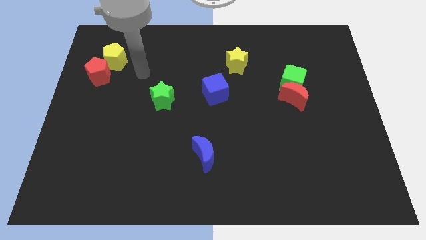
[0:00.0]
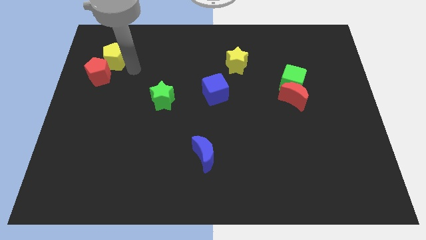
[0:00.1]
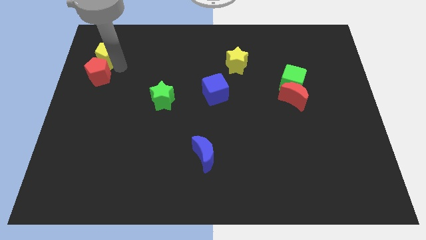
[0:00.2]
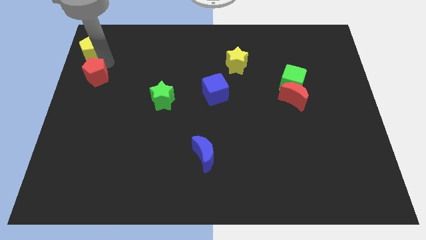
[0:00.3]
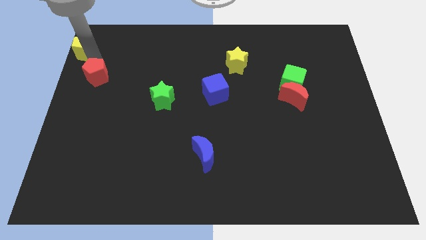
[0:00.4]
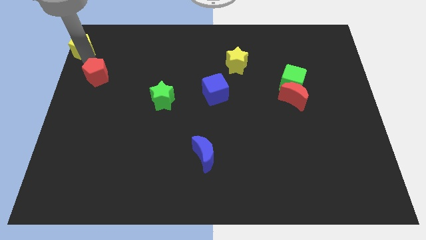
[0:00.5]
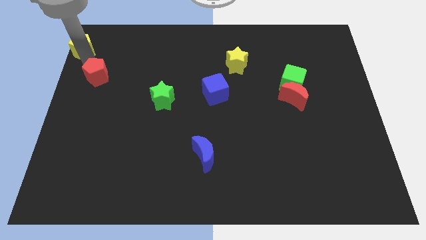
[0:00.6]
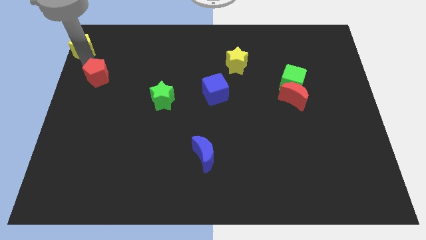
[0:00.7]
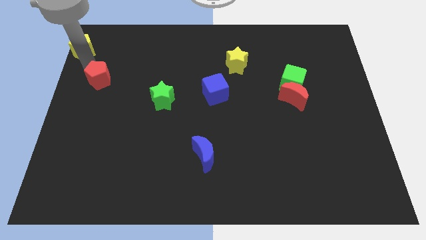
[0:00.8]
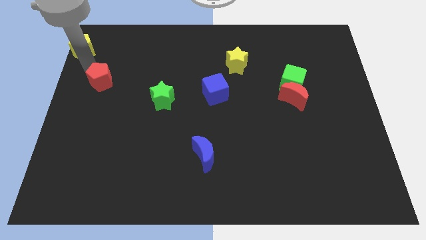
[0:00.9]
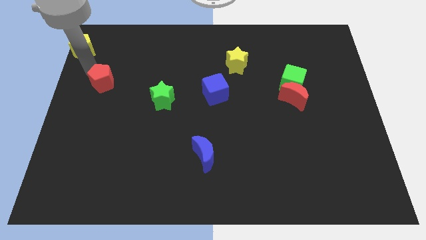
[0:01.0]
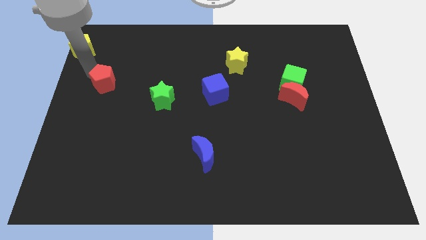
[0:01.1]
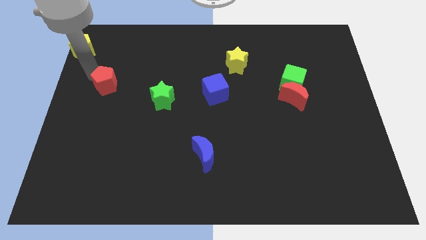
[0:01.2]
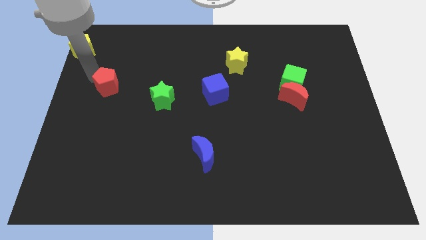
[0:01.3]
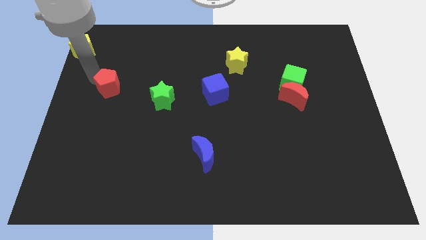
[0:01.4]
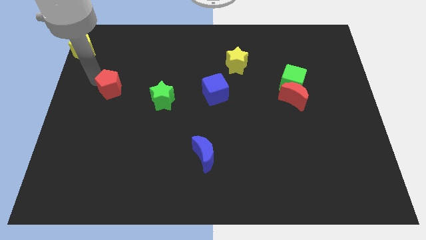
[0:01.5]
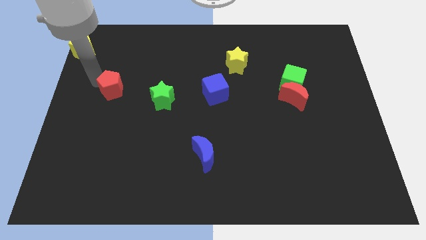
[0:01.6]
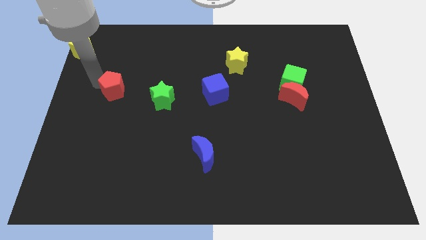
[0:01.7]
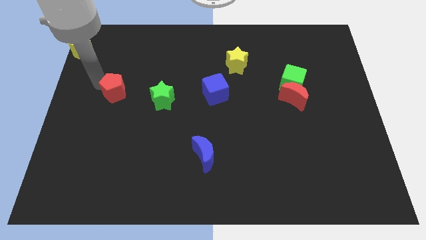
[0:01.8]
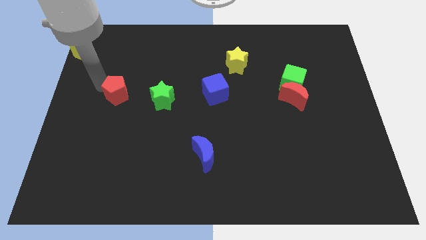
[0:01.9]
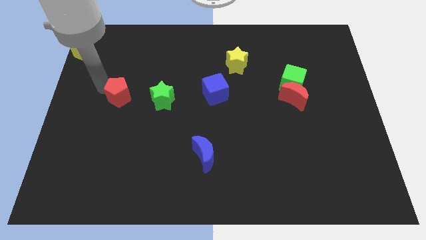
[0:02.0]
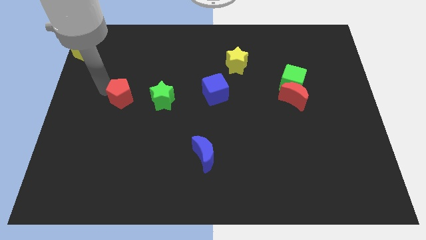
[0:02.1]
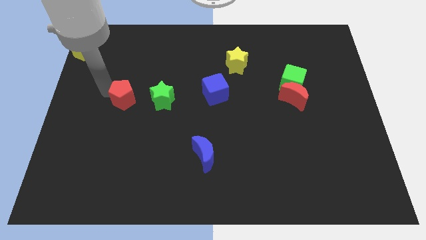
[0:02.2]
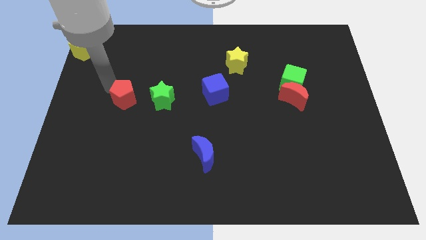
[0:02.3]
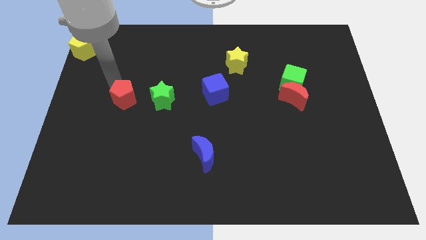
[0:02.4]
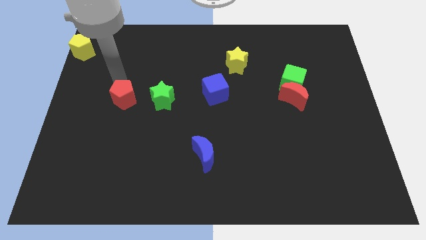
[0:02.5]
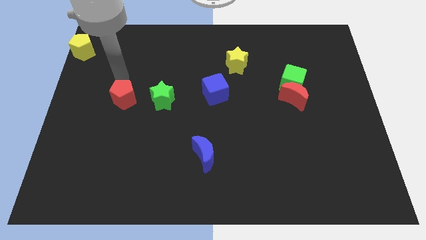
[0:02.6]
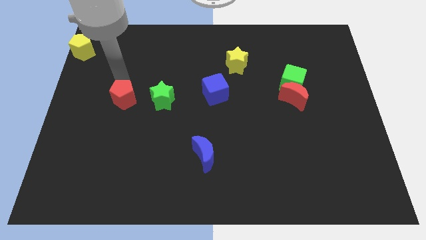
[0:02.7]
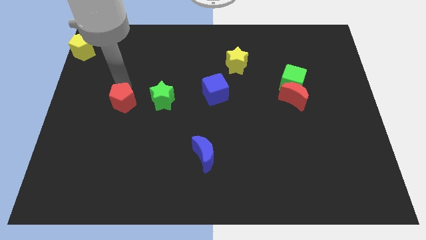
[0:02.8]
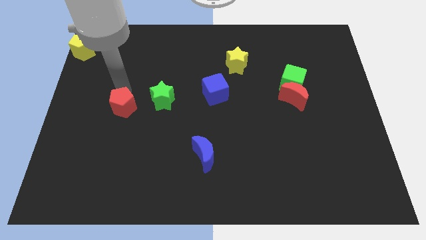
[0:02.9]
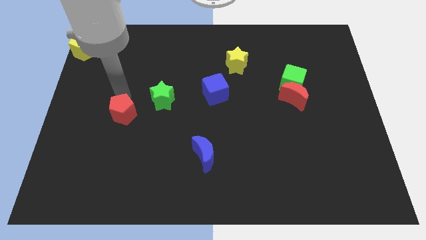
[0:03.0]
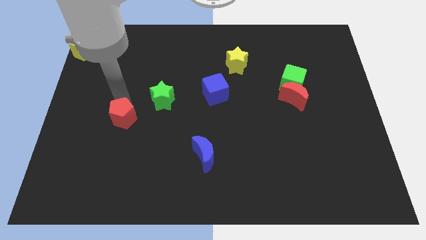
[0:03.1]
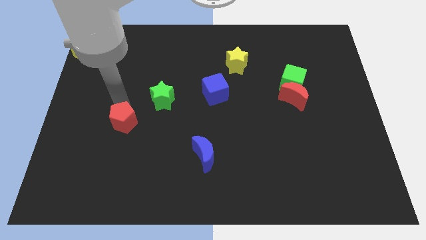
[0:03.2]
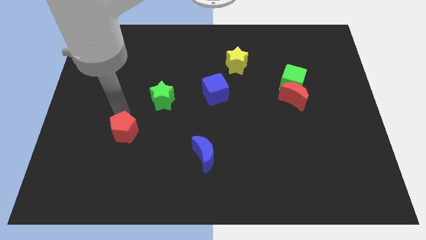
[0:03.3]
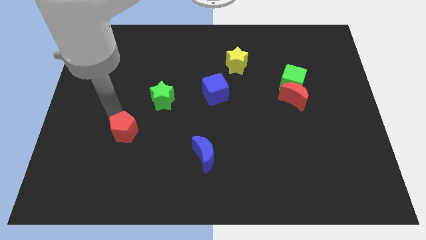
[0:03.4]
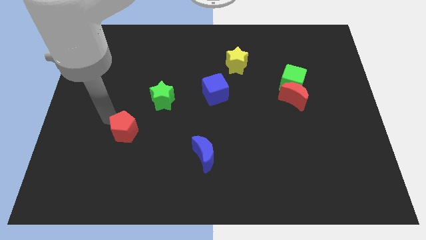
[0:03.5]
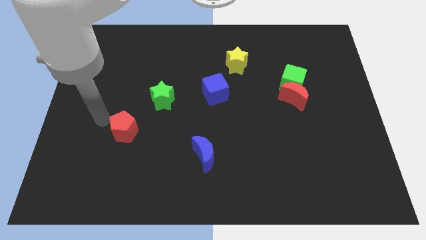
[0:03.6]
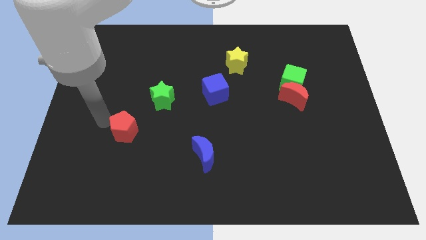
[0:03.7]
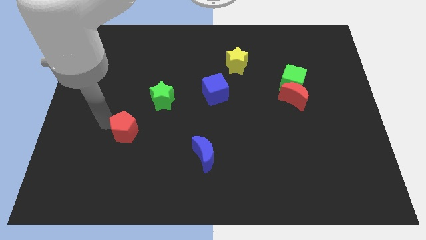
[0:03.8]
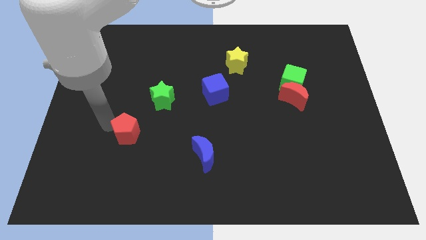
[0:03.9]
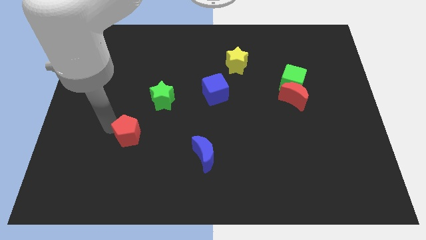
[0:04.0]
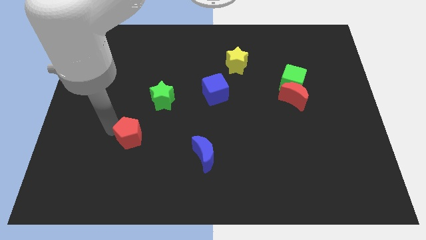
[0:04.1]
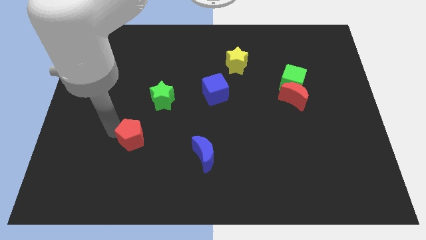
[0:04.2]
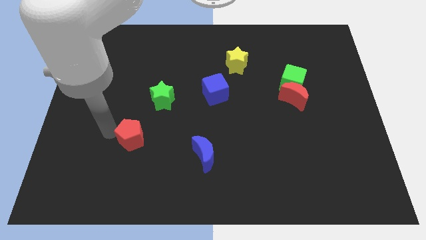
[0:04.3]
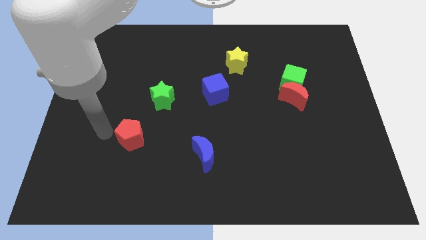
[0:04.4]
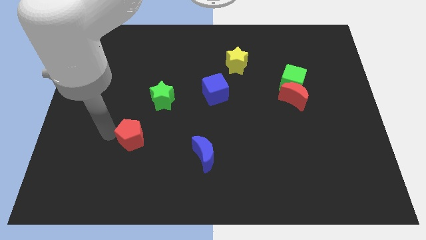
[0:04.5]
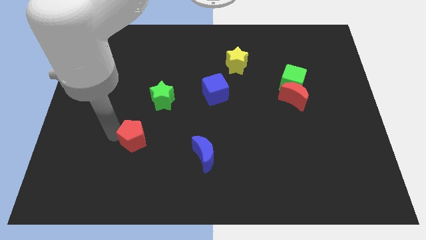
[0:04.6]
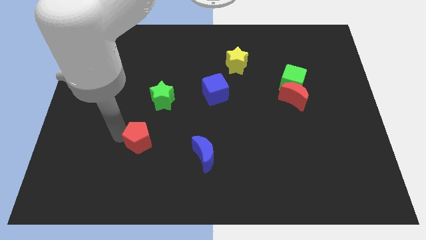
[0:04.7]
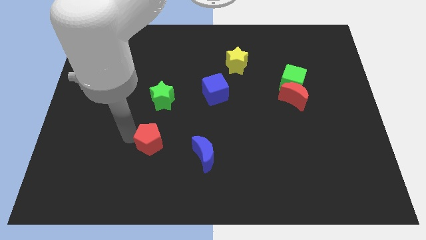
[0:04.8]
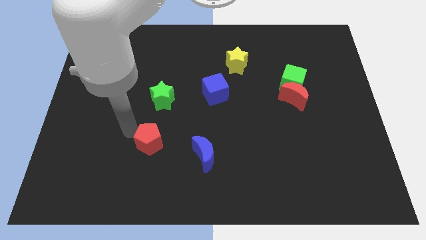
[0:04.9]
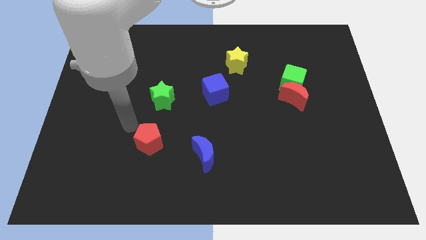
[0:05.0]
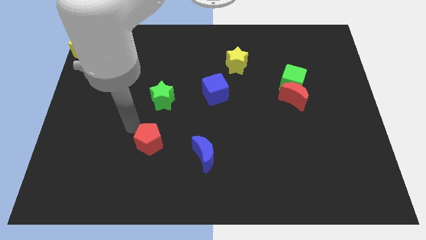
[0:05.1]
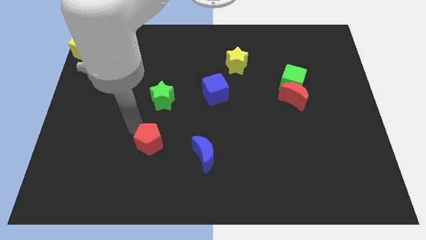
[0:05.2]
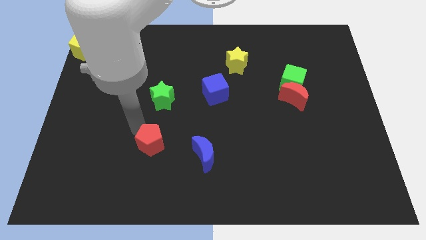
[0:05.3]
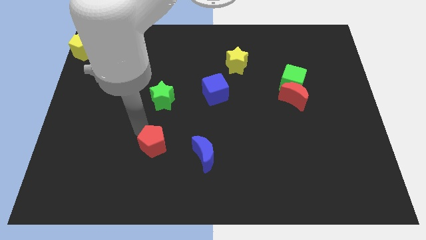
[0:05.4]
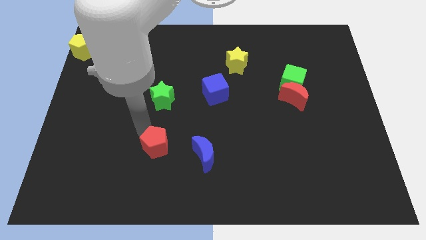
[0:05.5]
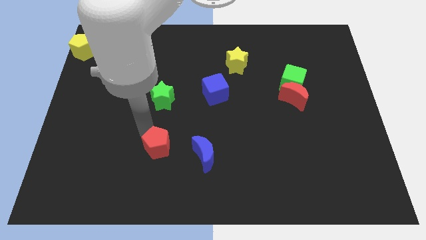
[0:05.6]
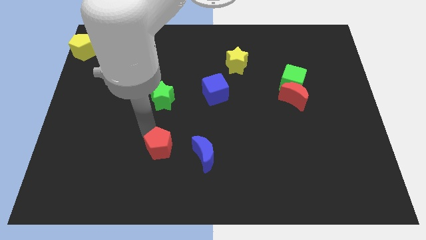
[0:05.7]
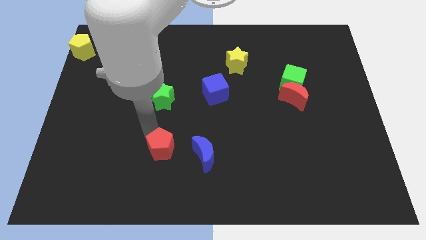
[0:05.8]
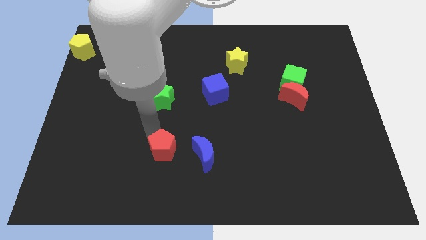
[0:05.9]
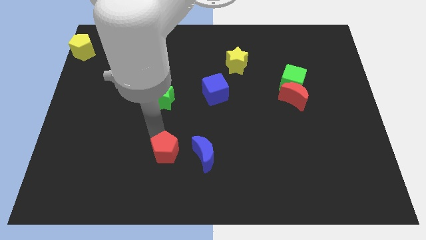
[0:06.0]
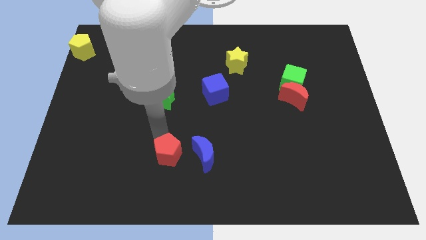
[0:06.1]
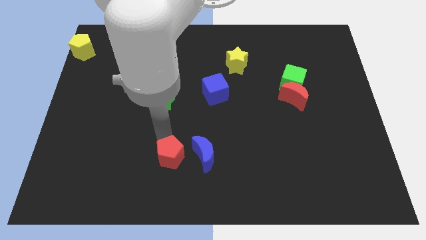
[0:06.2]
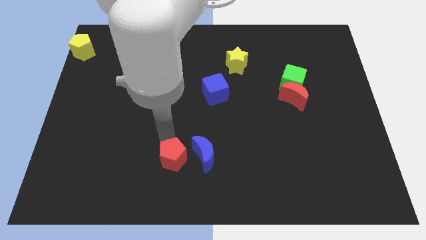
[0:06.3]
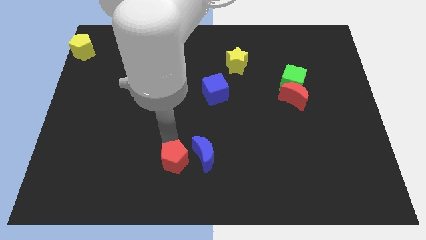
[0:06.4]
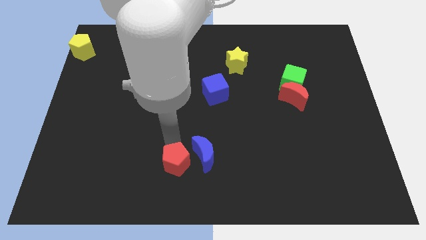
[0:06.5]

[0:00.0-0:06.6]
move the red pentagon to the bottom side
